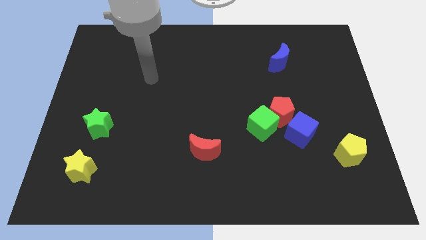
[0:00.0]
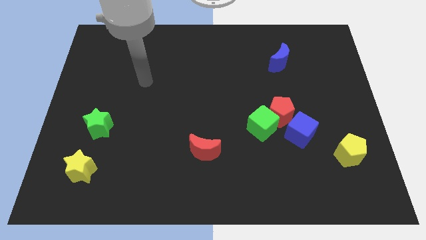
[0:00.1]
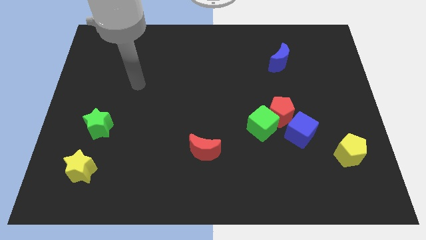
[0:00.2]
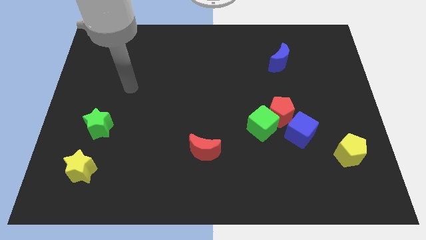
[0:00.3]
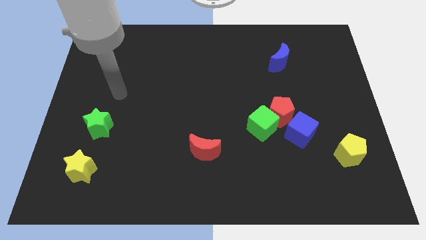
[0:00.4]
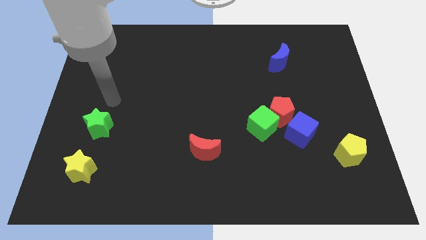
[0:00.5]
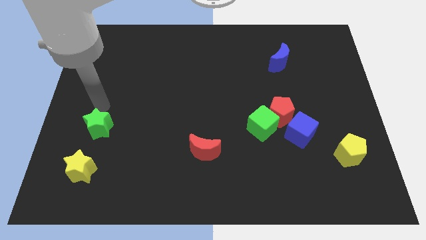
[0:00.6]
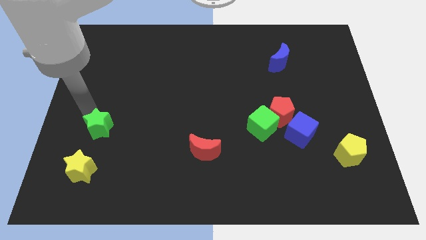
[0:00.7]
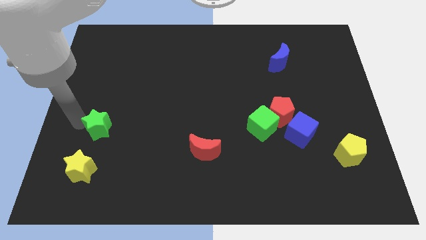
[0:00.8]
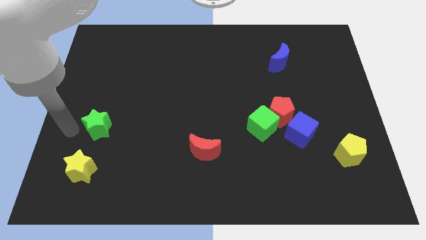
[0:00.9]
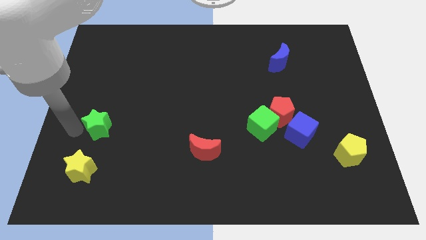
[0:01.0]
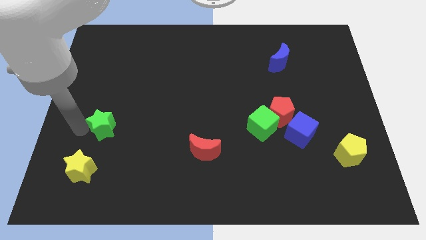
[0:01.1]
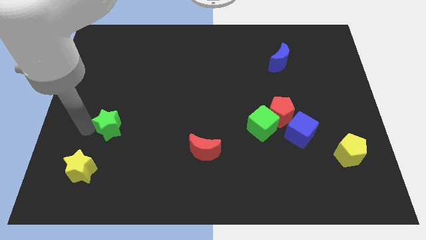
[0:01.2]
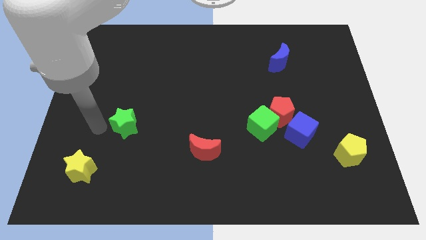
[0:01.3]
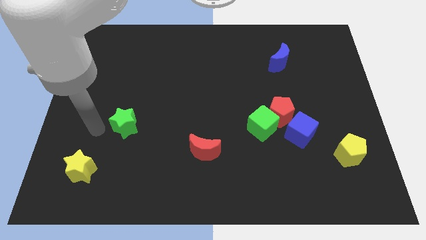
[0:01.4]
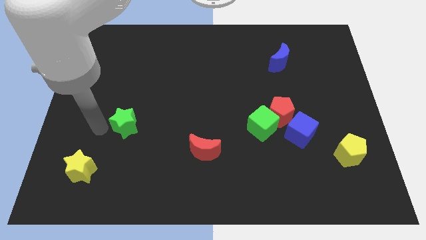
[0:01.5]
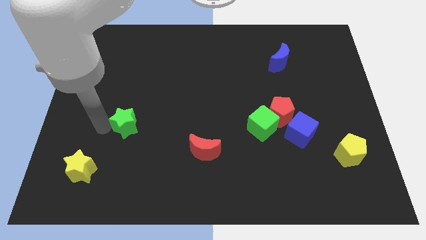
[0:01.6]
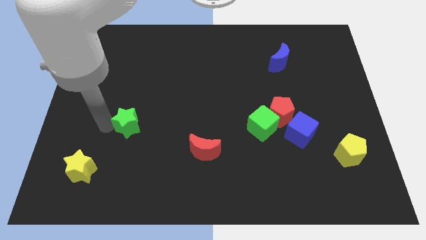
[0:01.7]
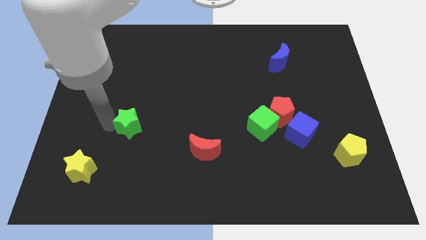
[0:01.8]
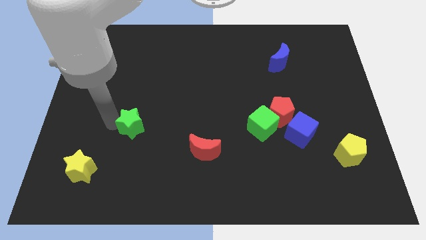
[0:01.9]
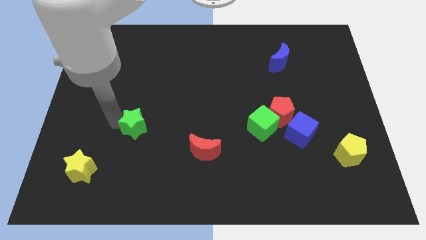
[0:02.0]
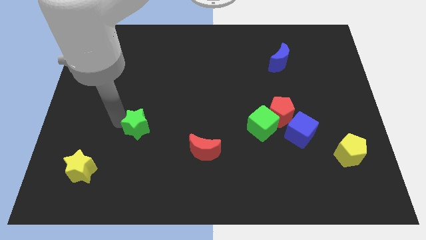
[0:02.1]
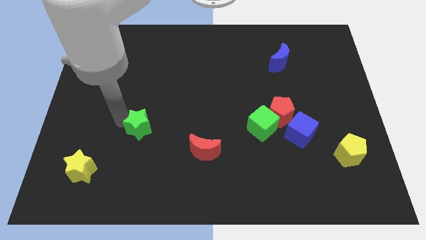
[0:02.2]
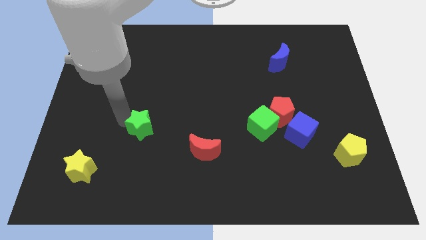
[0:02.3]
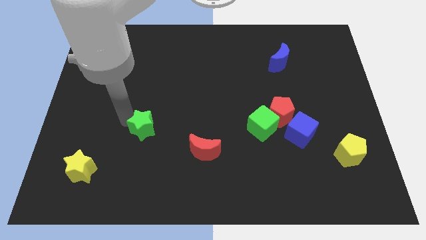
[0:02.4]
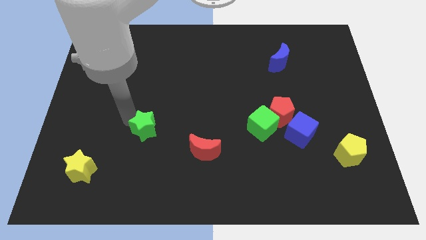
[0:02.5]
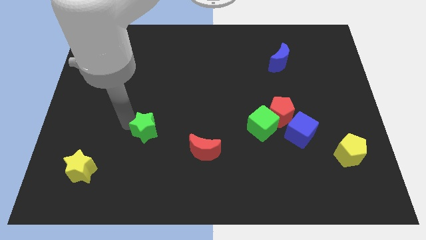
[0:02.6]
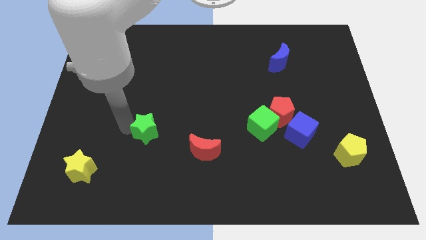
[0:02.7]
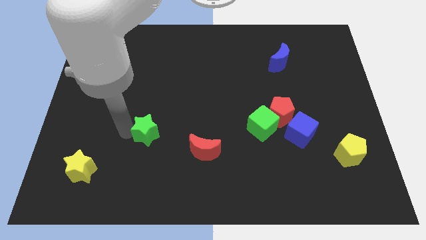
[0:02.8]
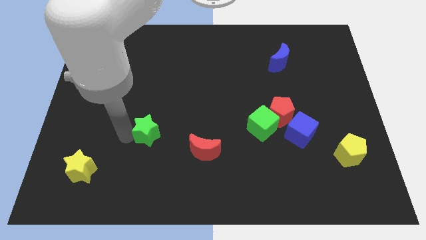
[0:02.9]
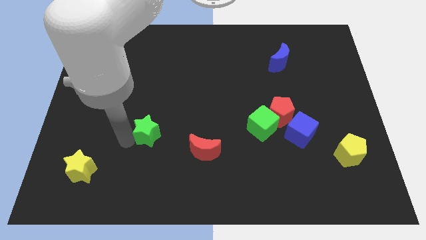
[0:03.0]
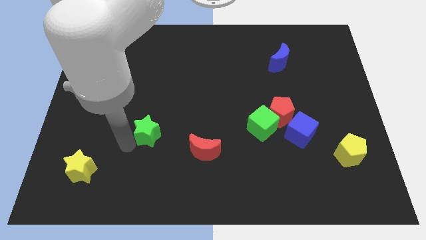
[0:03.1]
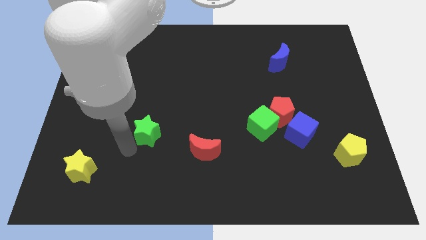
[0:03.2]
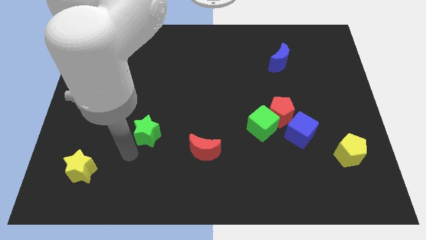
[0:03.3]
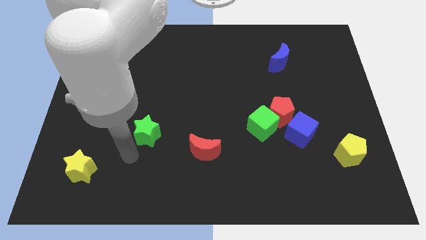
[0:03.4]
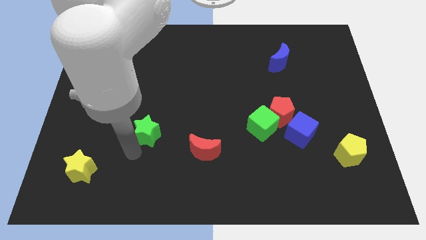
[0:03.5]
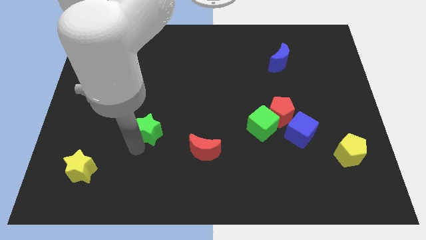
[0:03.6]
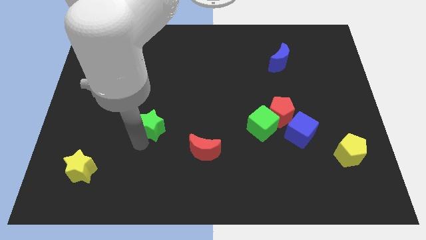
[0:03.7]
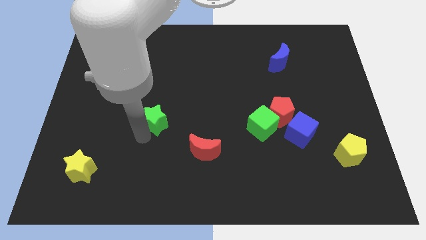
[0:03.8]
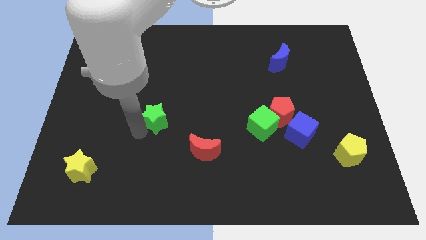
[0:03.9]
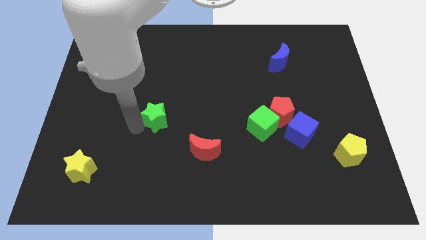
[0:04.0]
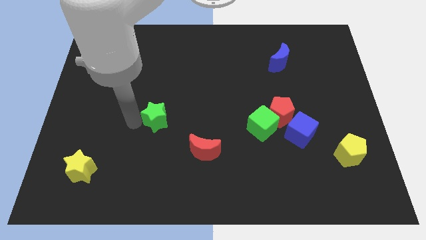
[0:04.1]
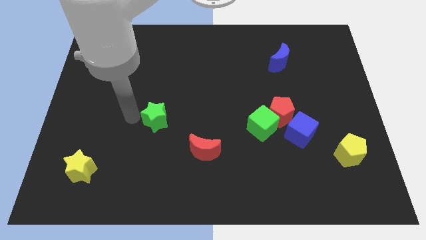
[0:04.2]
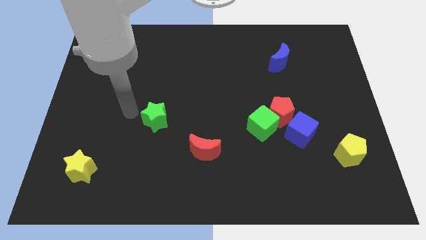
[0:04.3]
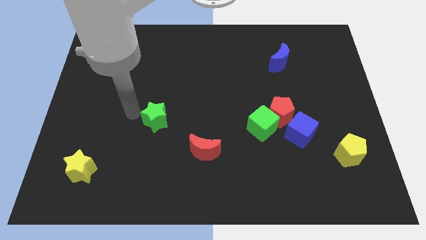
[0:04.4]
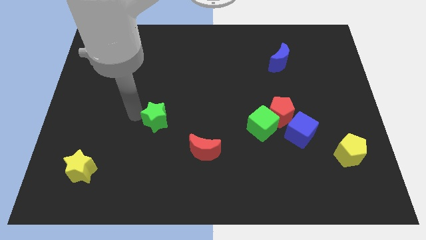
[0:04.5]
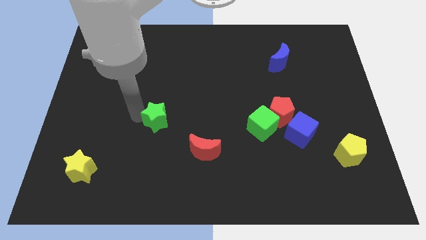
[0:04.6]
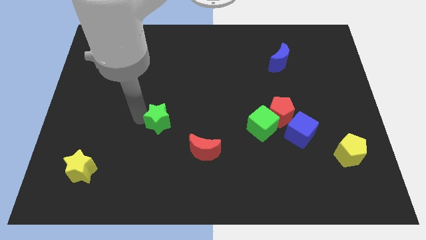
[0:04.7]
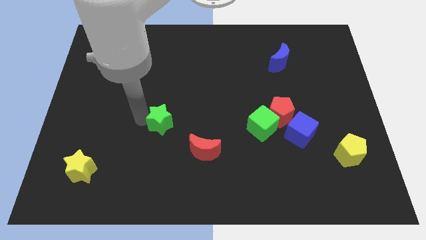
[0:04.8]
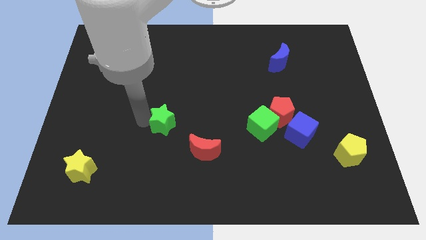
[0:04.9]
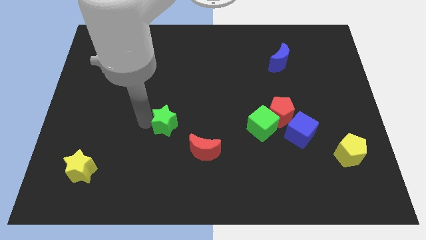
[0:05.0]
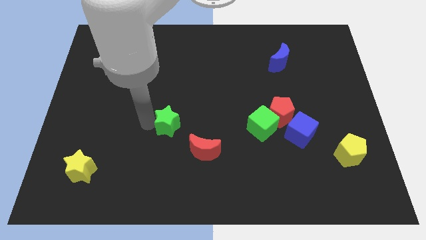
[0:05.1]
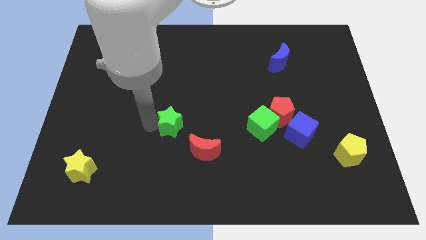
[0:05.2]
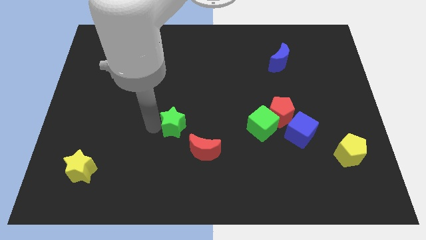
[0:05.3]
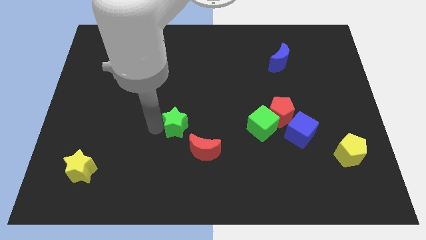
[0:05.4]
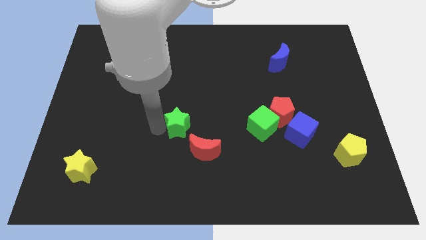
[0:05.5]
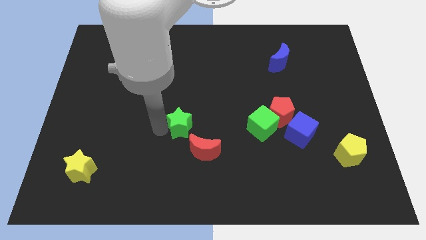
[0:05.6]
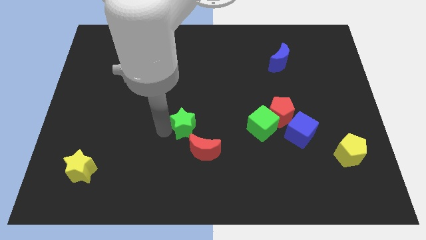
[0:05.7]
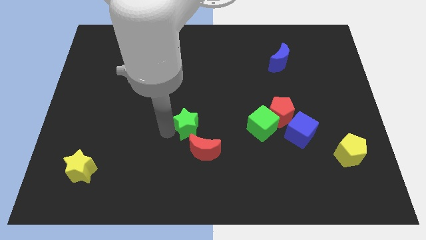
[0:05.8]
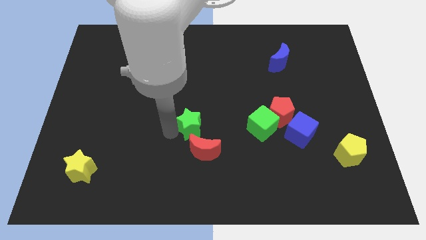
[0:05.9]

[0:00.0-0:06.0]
push the green star right

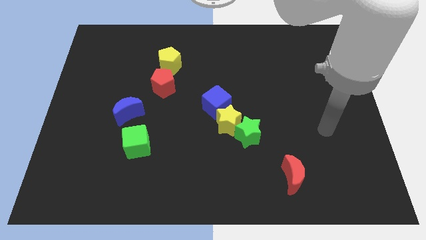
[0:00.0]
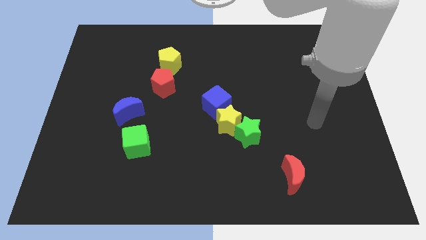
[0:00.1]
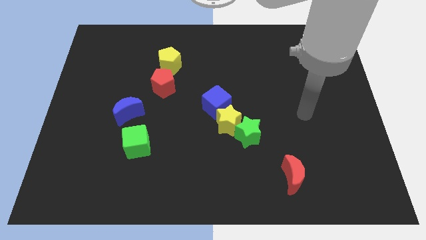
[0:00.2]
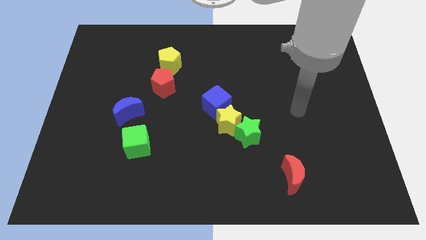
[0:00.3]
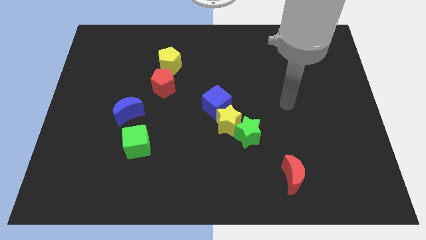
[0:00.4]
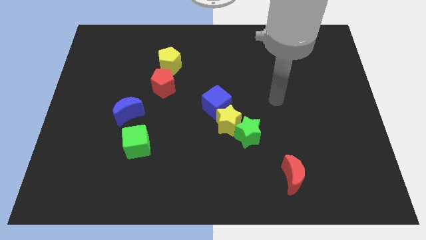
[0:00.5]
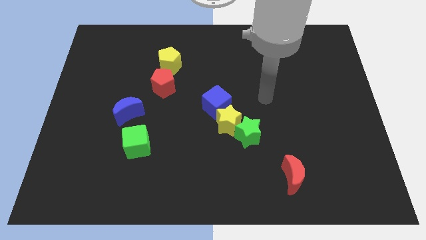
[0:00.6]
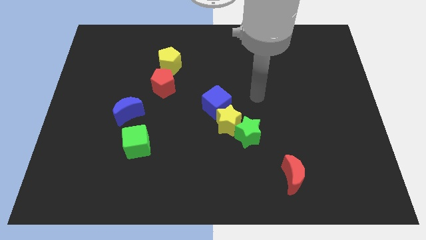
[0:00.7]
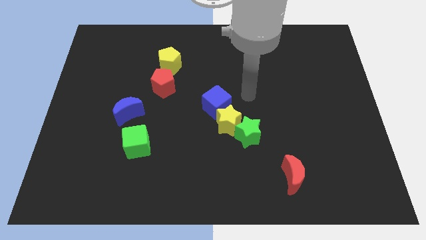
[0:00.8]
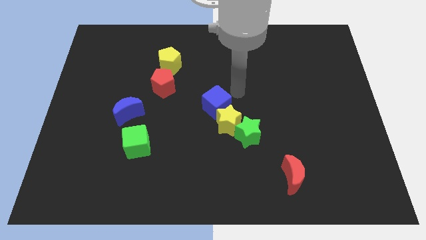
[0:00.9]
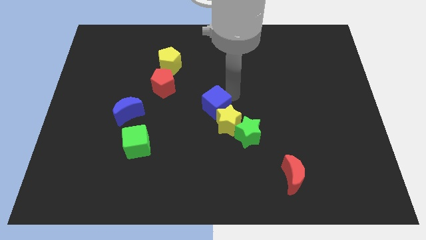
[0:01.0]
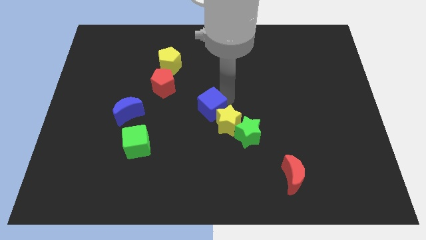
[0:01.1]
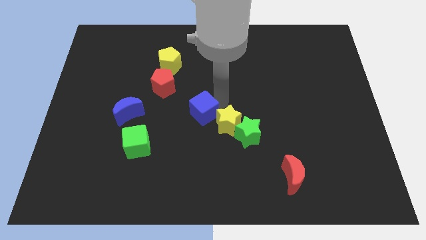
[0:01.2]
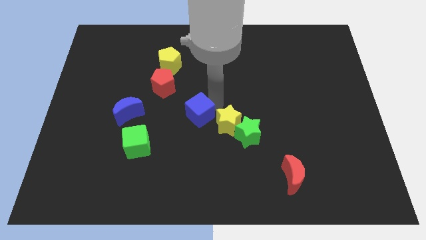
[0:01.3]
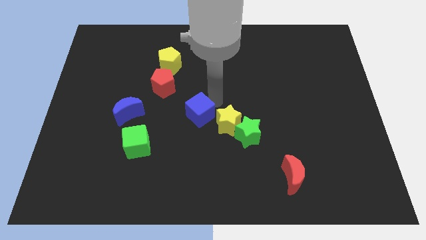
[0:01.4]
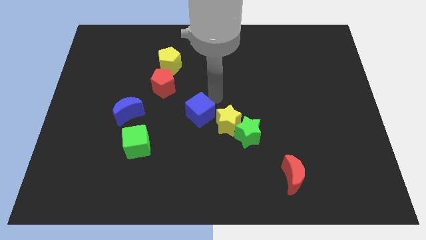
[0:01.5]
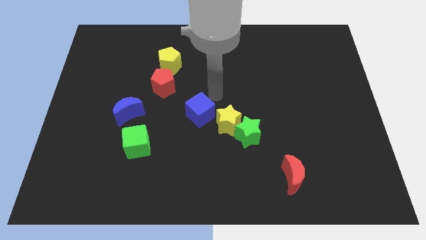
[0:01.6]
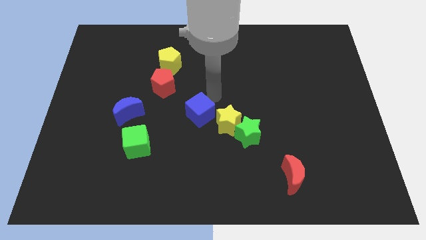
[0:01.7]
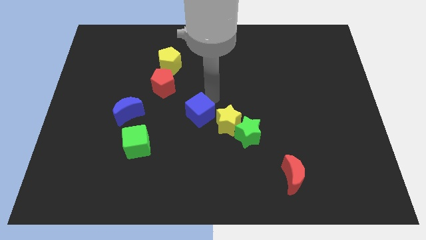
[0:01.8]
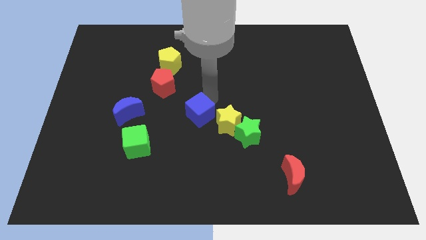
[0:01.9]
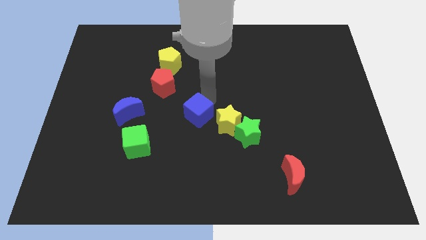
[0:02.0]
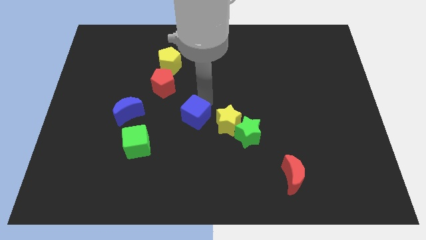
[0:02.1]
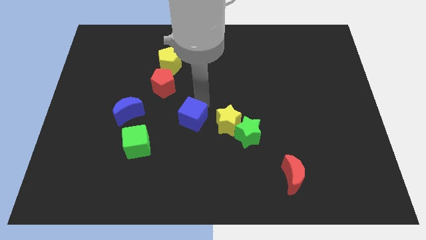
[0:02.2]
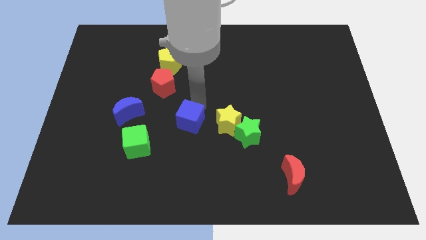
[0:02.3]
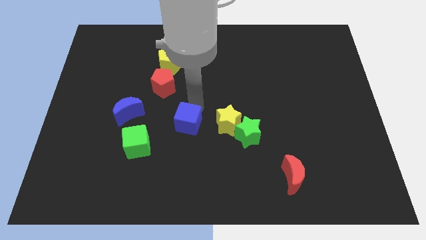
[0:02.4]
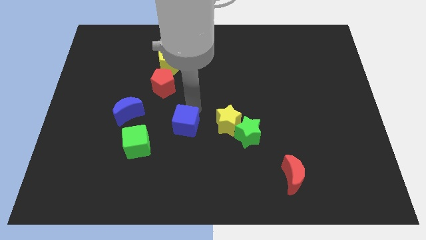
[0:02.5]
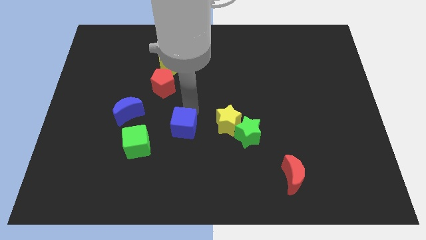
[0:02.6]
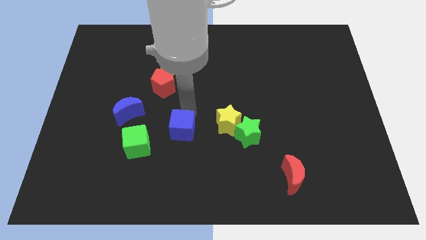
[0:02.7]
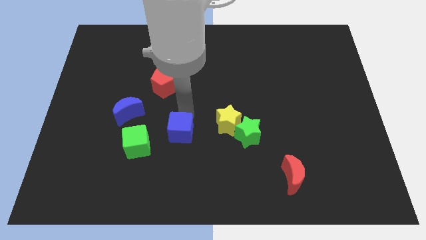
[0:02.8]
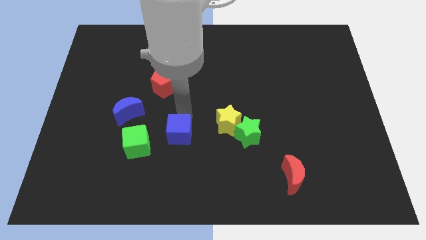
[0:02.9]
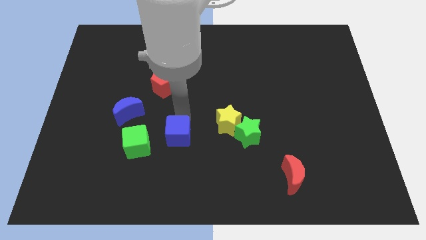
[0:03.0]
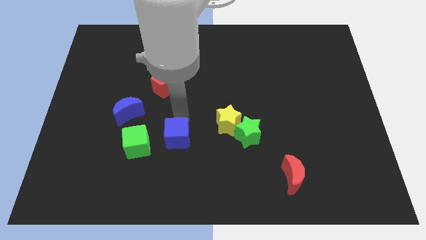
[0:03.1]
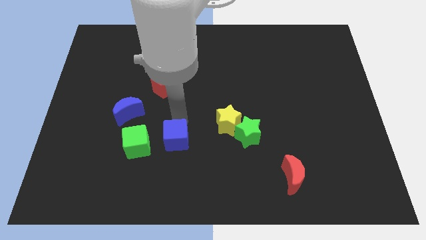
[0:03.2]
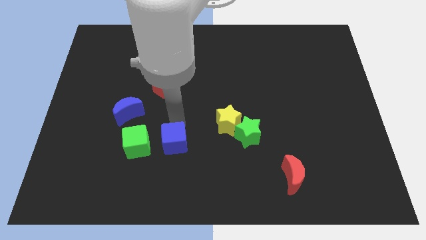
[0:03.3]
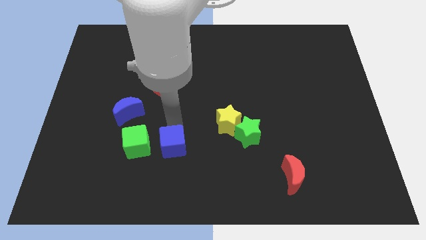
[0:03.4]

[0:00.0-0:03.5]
slide the blue cube downwards a bit
